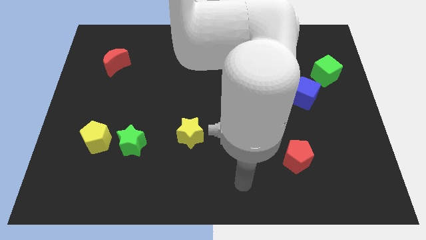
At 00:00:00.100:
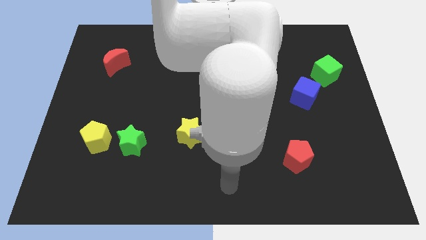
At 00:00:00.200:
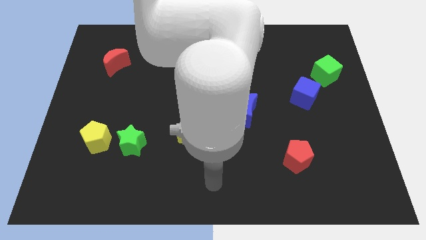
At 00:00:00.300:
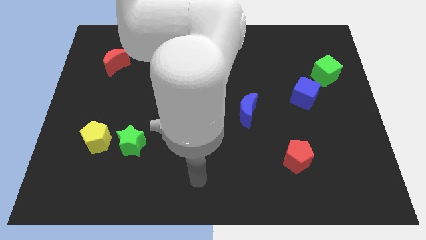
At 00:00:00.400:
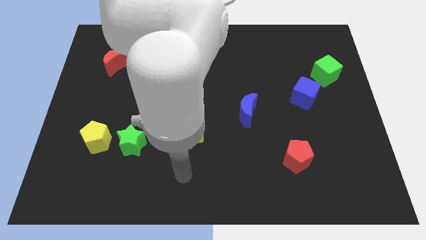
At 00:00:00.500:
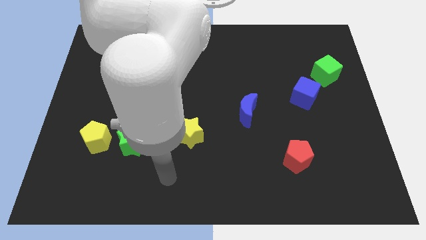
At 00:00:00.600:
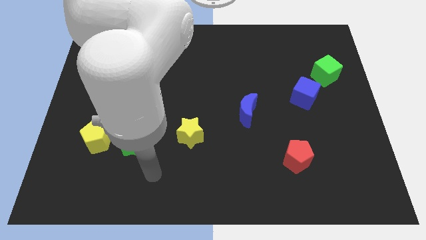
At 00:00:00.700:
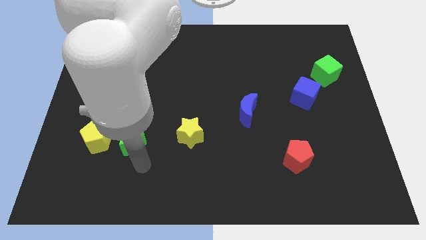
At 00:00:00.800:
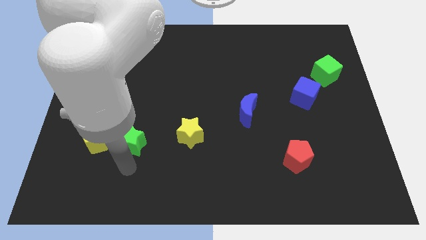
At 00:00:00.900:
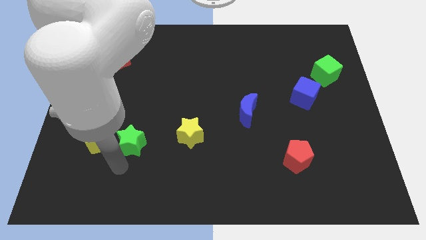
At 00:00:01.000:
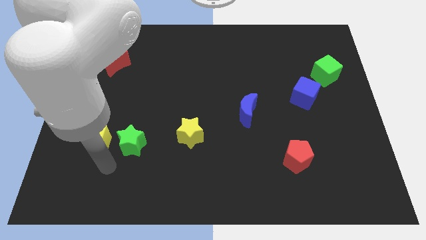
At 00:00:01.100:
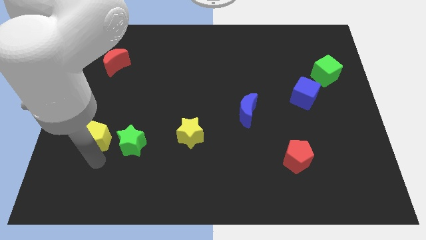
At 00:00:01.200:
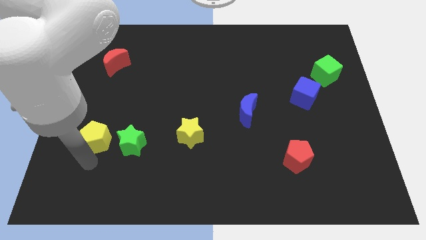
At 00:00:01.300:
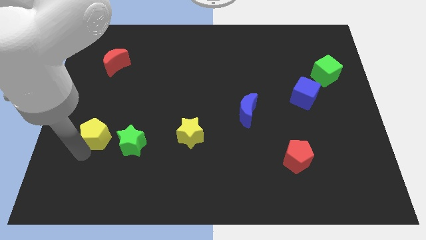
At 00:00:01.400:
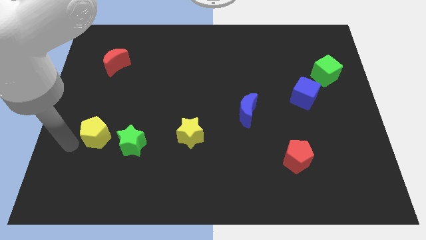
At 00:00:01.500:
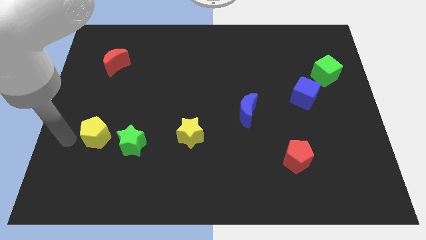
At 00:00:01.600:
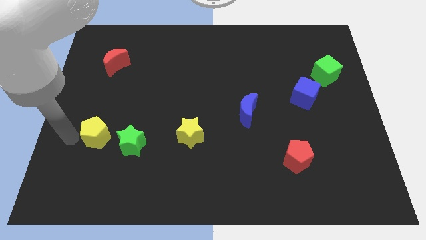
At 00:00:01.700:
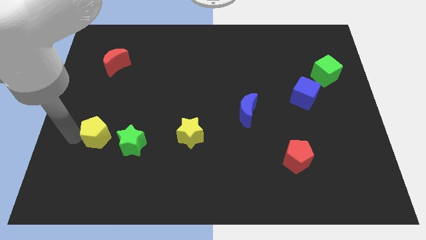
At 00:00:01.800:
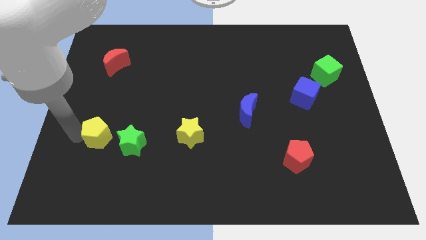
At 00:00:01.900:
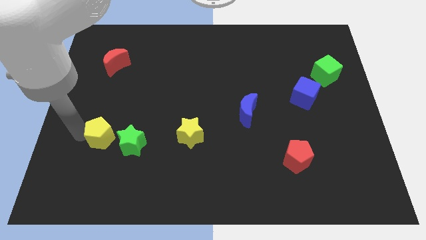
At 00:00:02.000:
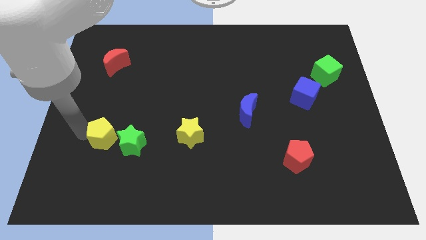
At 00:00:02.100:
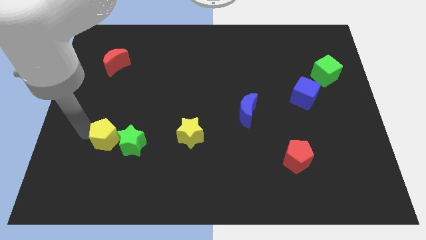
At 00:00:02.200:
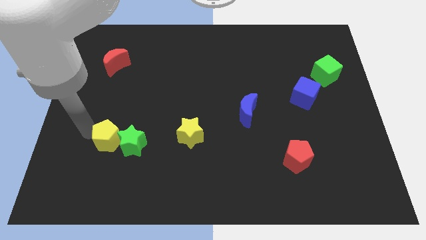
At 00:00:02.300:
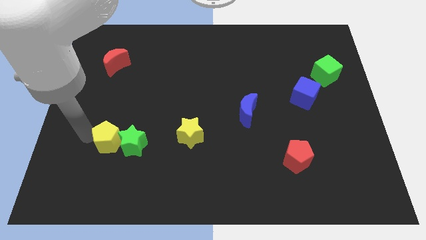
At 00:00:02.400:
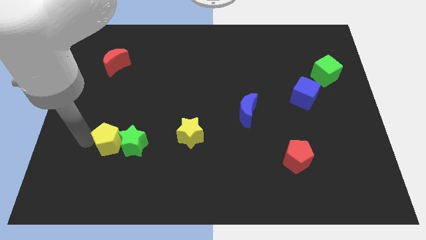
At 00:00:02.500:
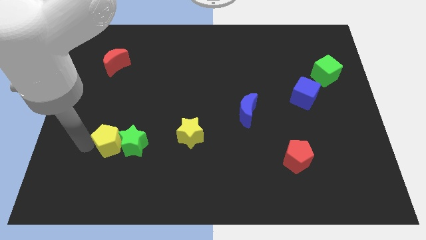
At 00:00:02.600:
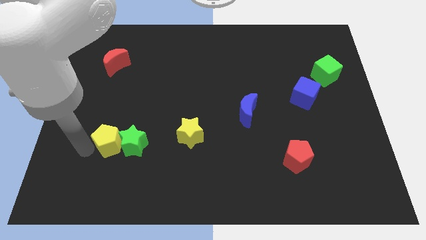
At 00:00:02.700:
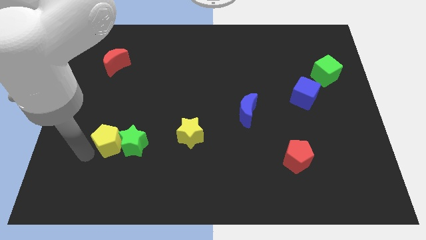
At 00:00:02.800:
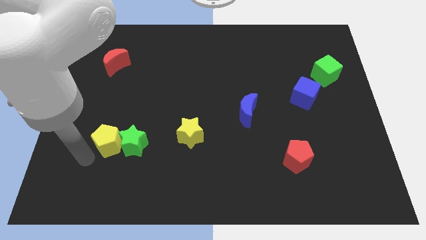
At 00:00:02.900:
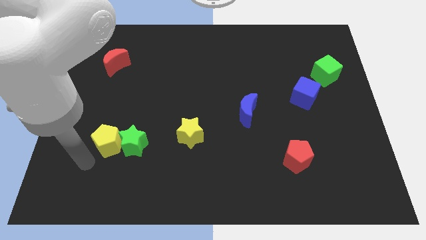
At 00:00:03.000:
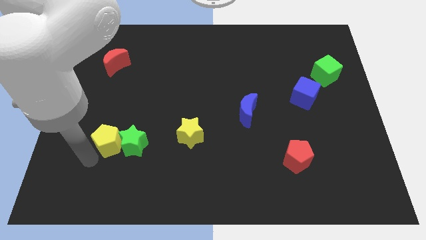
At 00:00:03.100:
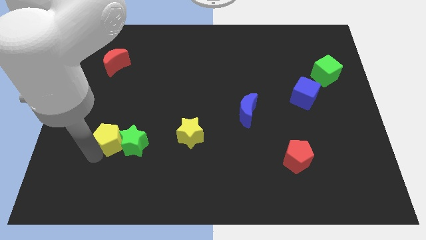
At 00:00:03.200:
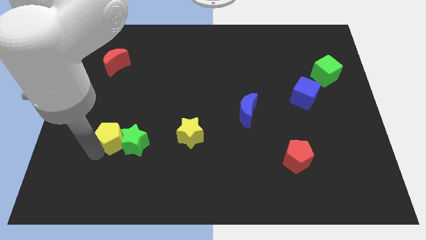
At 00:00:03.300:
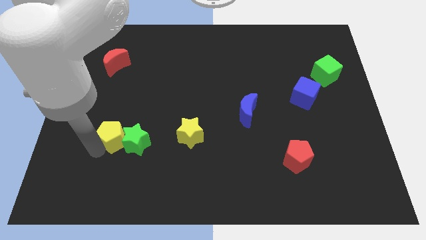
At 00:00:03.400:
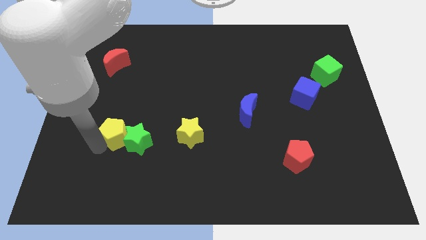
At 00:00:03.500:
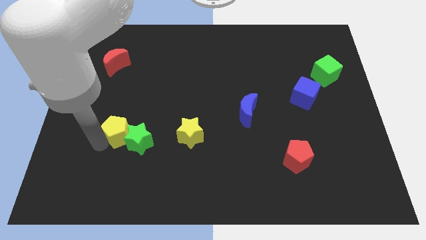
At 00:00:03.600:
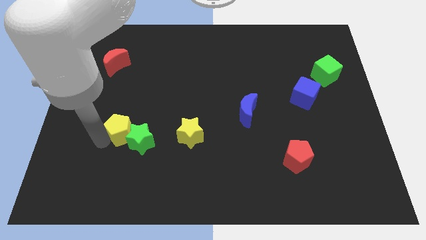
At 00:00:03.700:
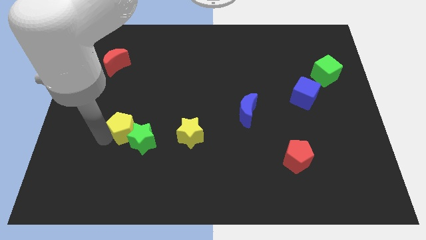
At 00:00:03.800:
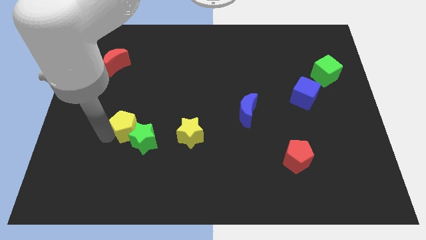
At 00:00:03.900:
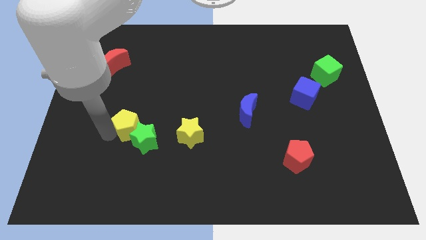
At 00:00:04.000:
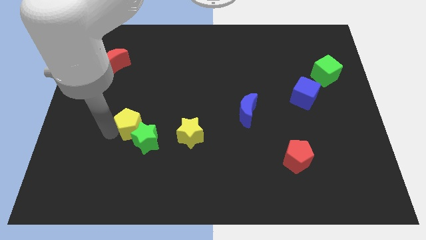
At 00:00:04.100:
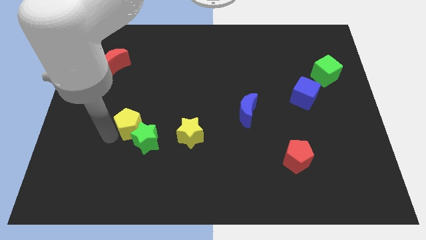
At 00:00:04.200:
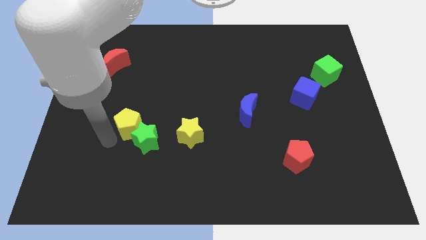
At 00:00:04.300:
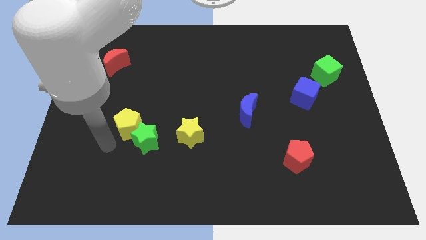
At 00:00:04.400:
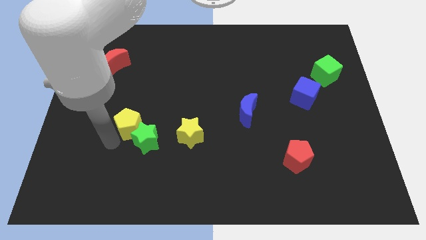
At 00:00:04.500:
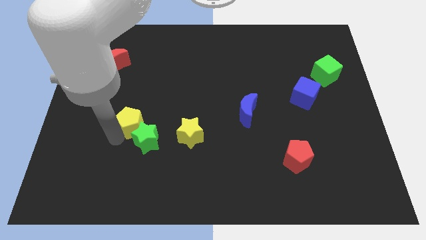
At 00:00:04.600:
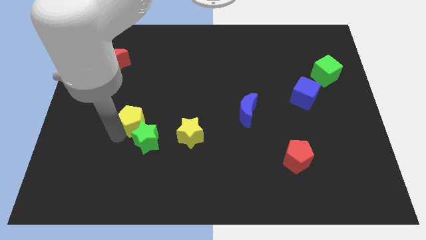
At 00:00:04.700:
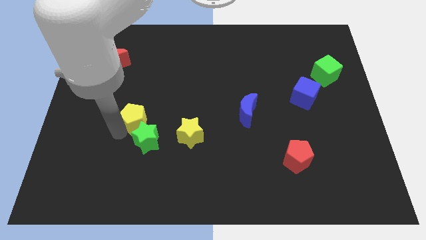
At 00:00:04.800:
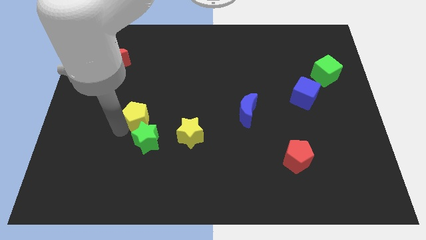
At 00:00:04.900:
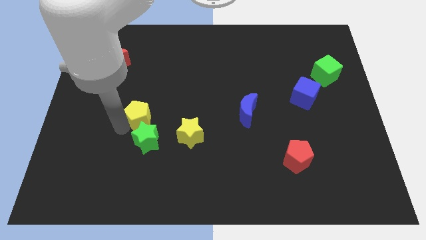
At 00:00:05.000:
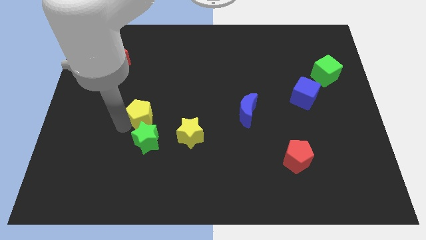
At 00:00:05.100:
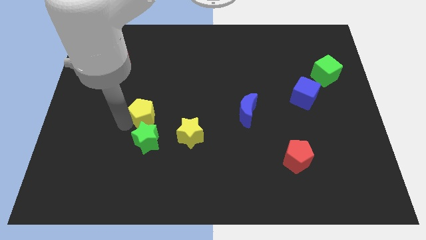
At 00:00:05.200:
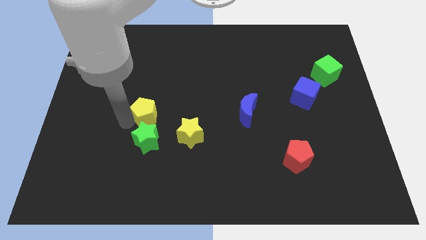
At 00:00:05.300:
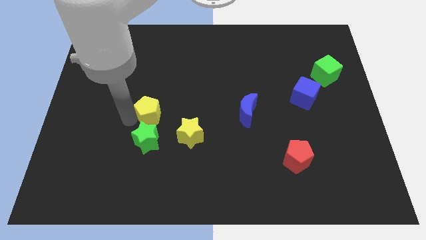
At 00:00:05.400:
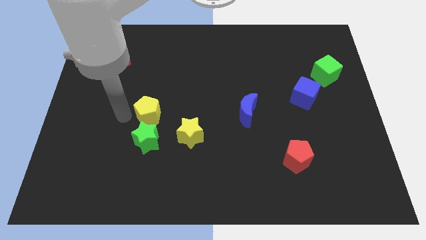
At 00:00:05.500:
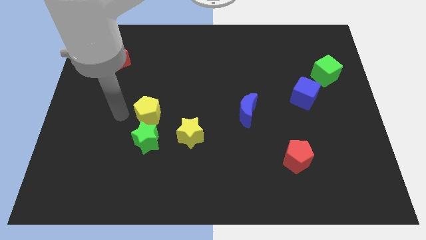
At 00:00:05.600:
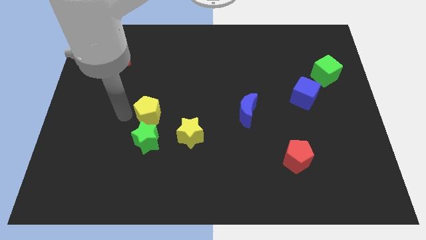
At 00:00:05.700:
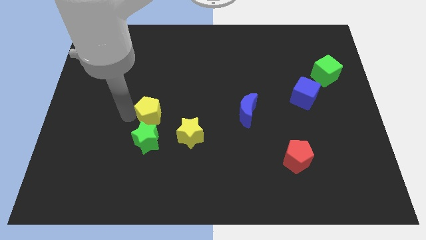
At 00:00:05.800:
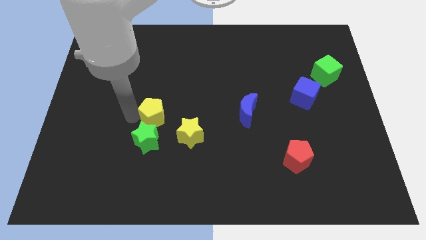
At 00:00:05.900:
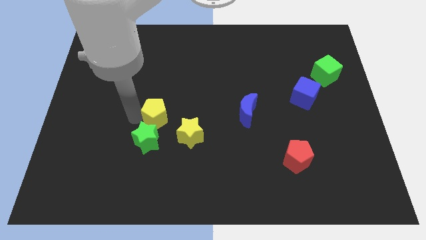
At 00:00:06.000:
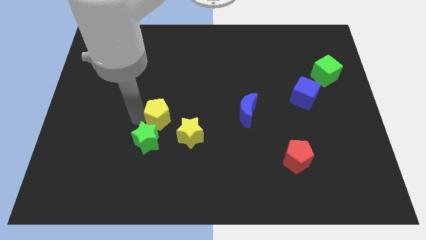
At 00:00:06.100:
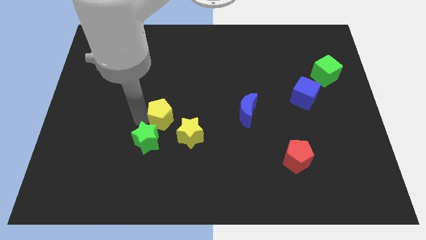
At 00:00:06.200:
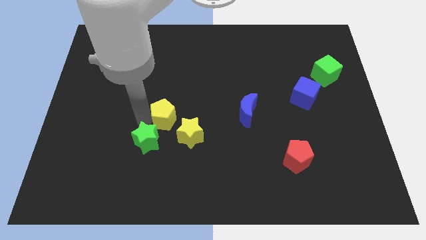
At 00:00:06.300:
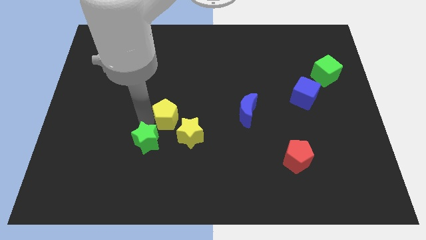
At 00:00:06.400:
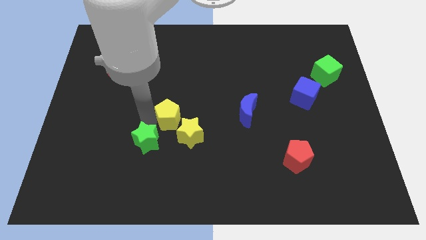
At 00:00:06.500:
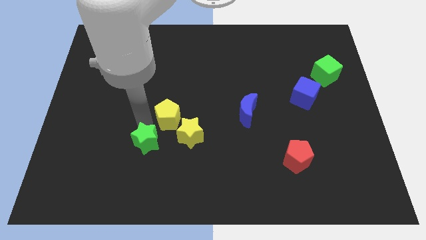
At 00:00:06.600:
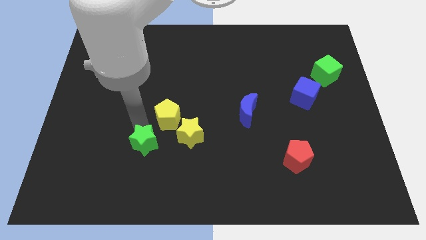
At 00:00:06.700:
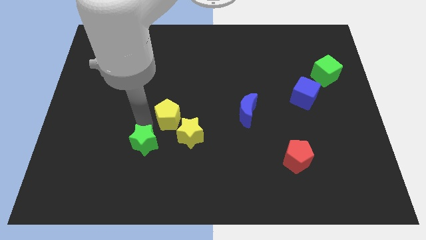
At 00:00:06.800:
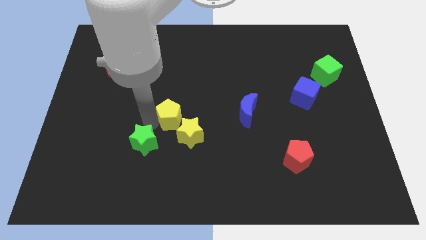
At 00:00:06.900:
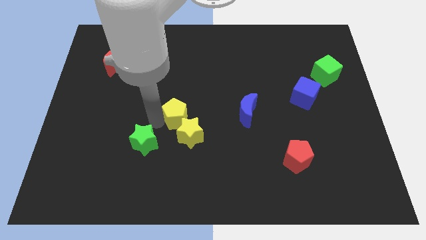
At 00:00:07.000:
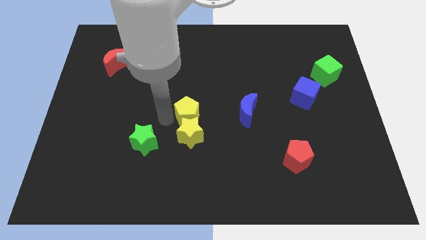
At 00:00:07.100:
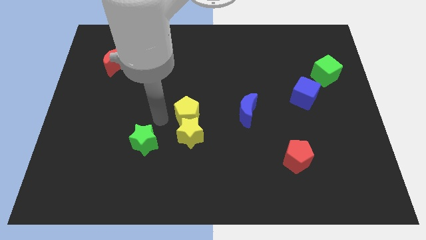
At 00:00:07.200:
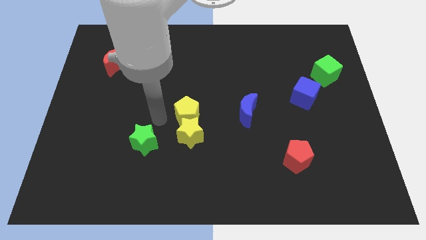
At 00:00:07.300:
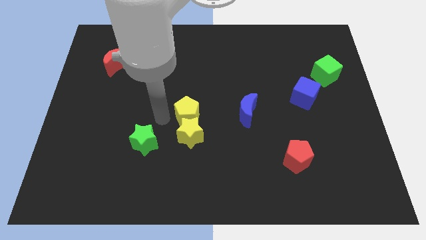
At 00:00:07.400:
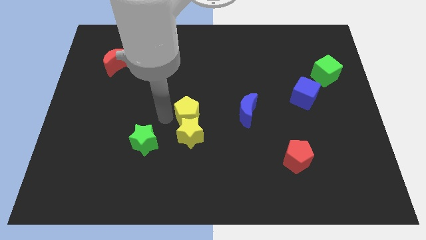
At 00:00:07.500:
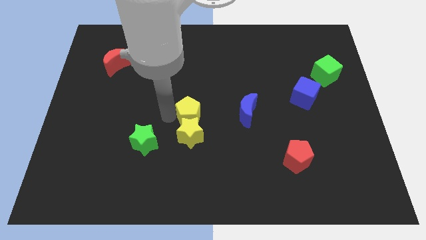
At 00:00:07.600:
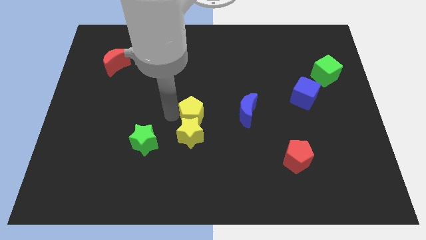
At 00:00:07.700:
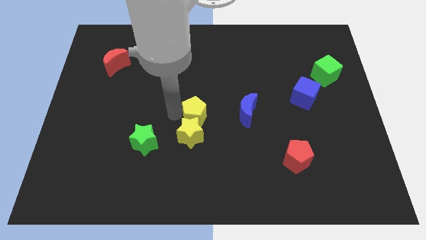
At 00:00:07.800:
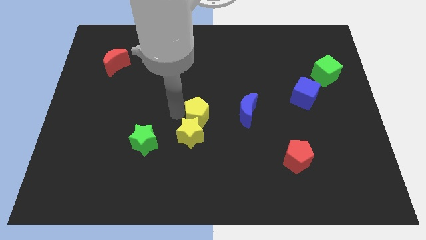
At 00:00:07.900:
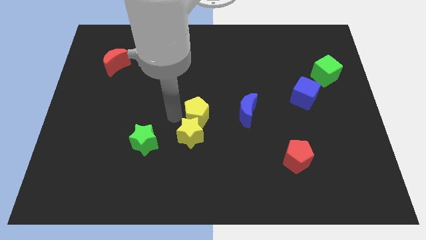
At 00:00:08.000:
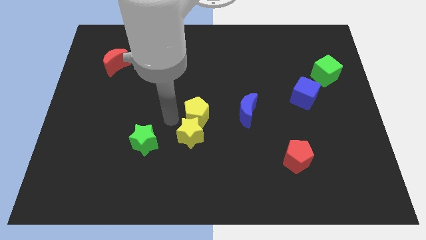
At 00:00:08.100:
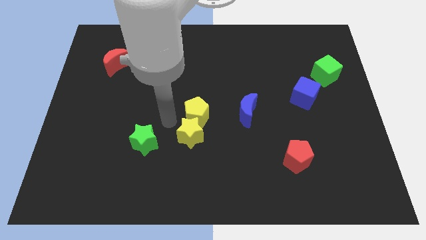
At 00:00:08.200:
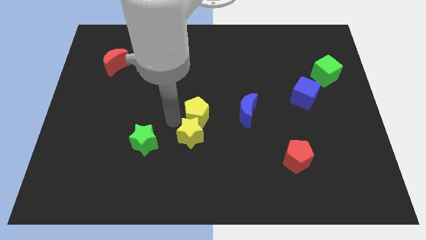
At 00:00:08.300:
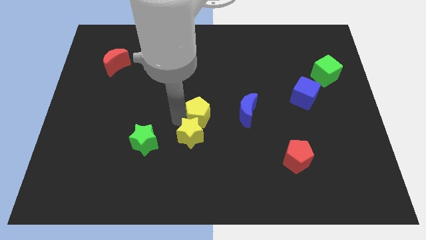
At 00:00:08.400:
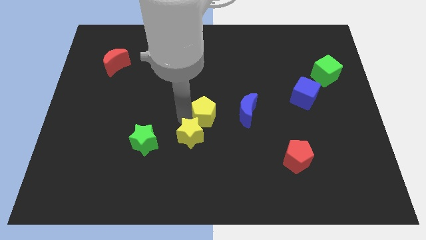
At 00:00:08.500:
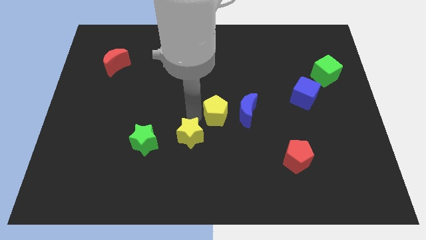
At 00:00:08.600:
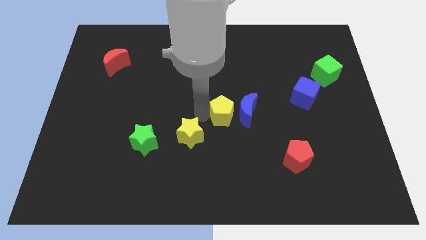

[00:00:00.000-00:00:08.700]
slide the yellow pentagon next to the blue moon
